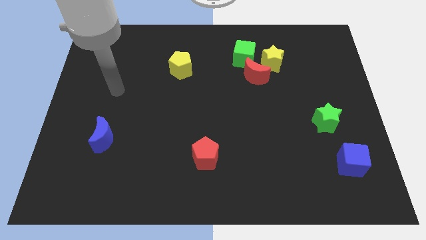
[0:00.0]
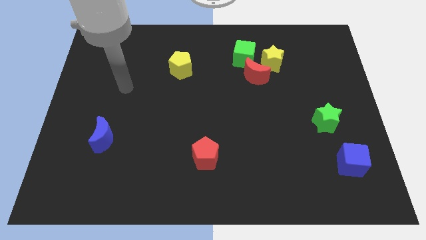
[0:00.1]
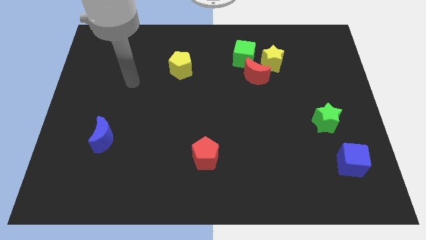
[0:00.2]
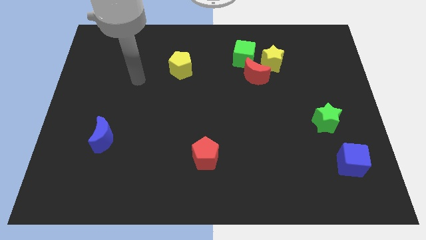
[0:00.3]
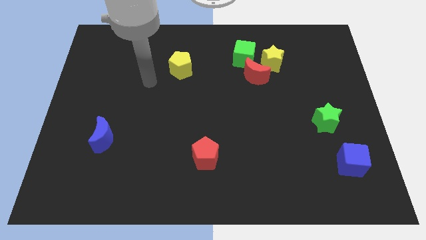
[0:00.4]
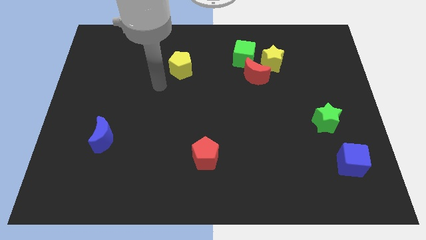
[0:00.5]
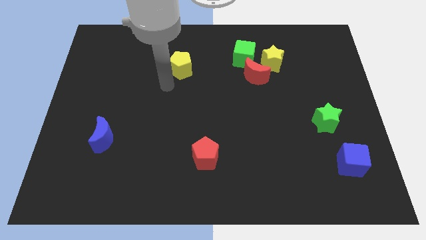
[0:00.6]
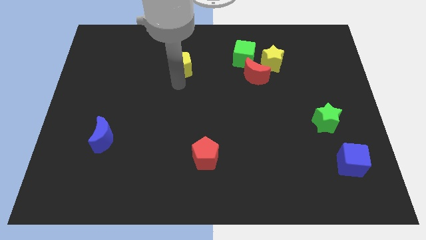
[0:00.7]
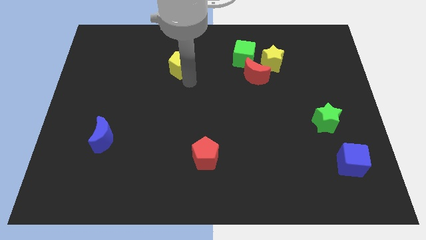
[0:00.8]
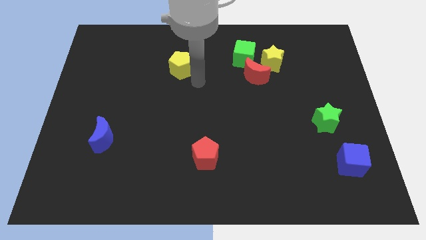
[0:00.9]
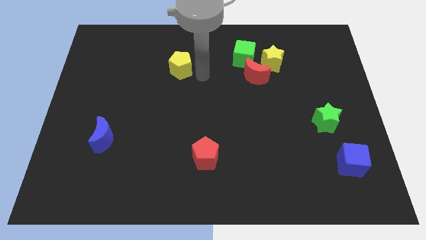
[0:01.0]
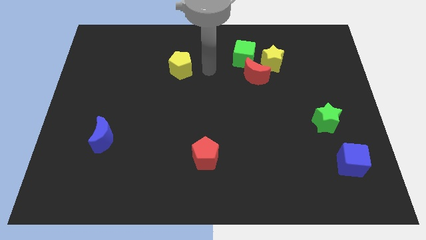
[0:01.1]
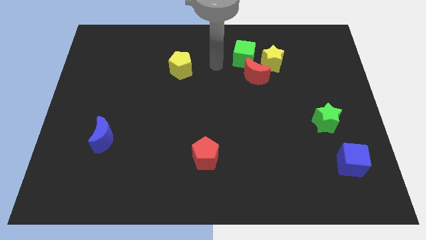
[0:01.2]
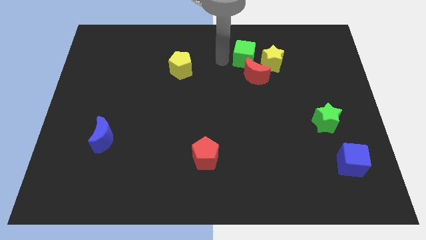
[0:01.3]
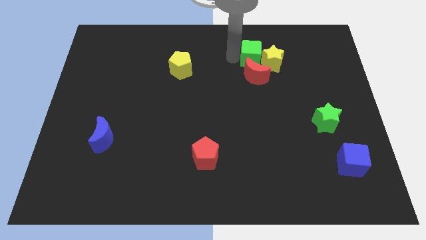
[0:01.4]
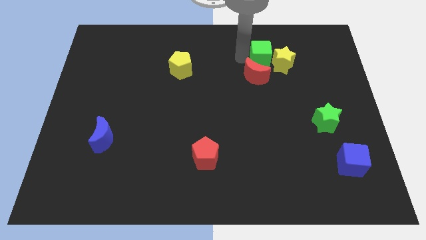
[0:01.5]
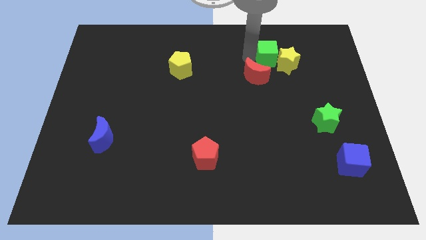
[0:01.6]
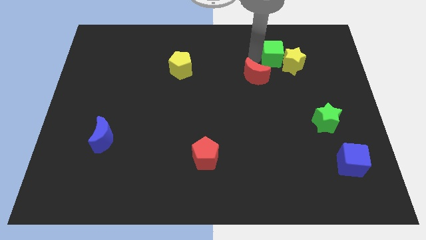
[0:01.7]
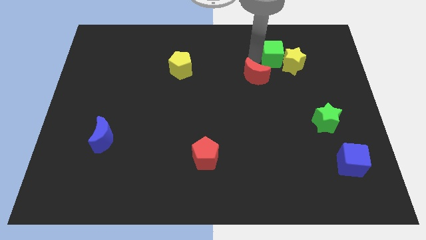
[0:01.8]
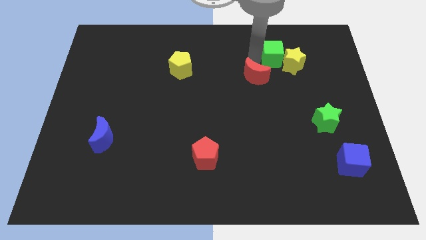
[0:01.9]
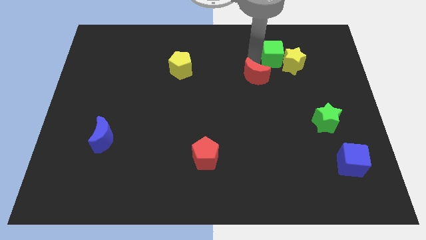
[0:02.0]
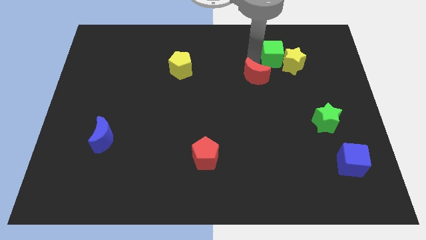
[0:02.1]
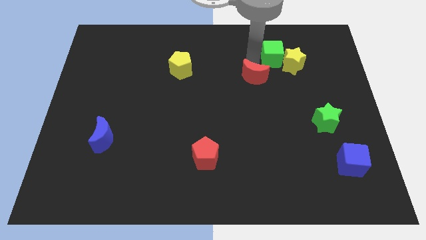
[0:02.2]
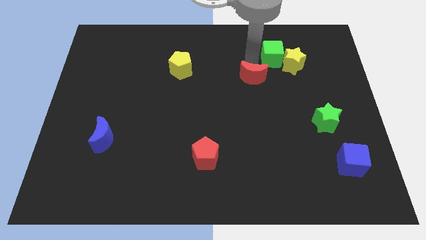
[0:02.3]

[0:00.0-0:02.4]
move the red moon away from the yellow star and green cube

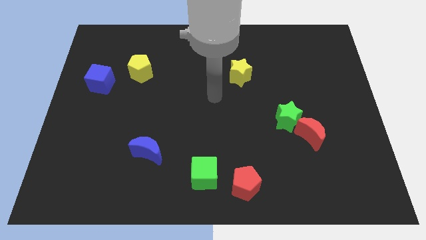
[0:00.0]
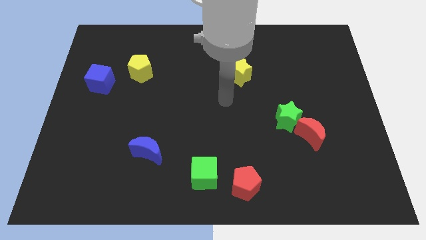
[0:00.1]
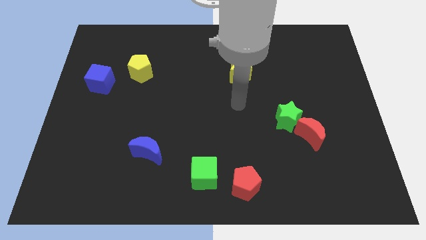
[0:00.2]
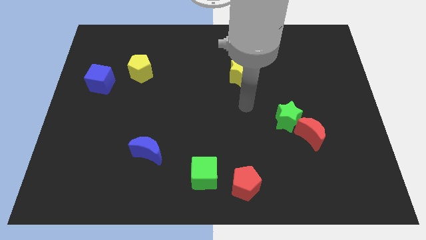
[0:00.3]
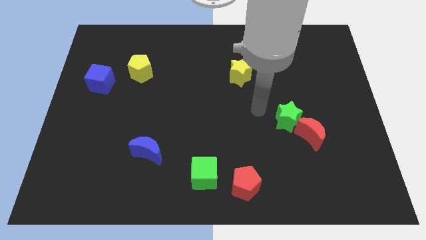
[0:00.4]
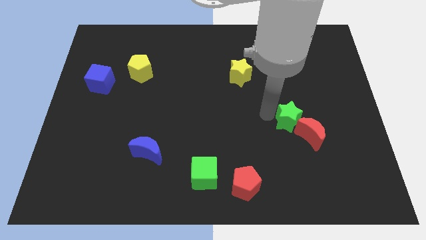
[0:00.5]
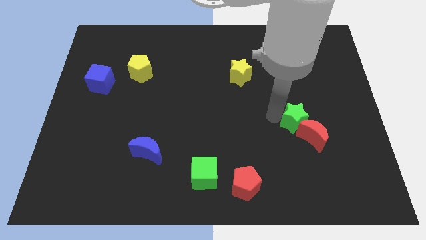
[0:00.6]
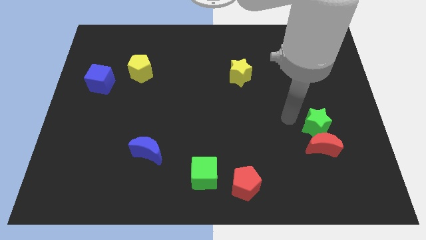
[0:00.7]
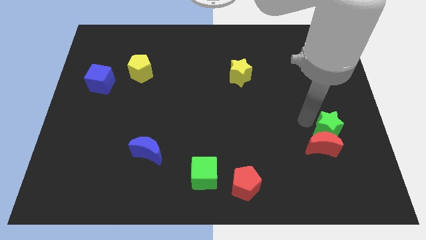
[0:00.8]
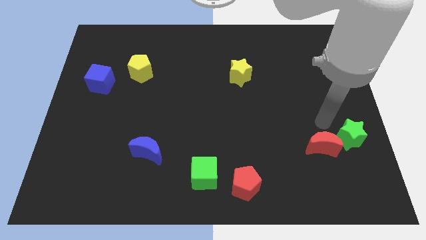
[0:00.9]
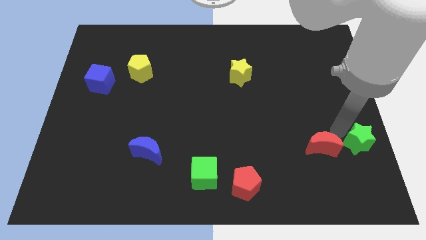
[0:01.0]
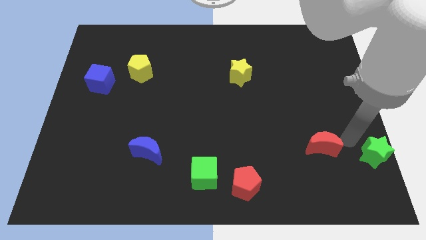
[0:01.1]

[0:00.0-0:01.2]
separate the red moon from the green star

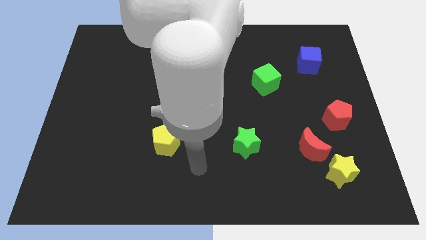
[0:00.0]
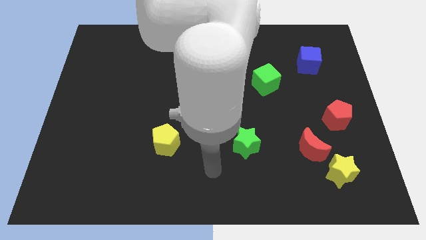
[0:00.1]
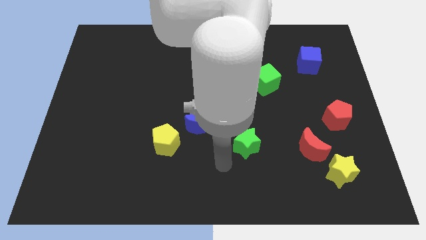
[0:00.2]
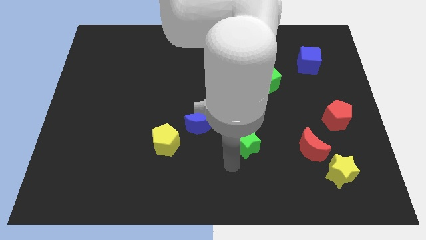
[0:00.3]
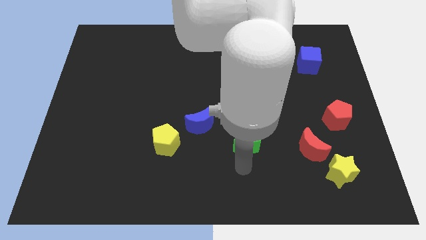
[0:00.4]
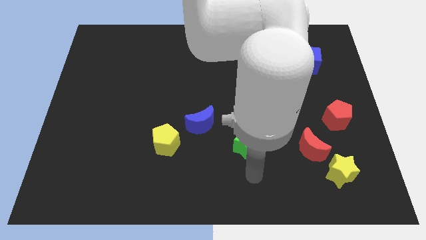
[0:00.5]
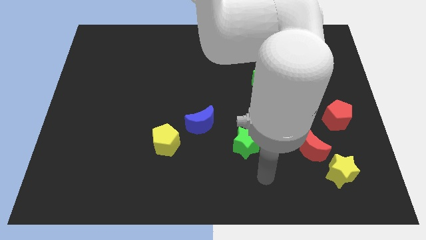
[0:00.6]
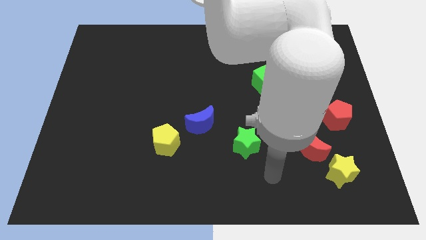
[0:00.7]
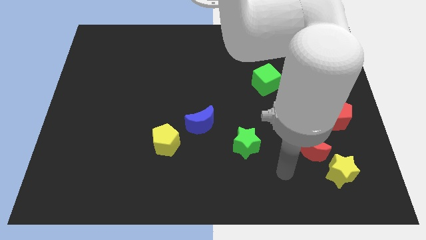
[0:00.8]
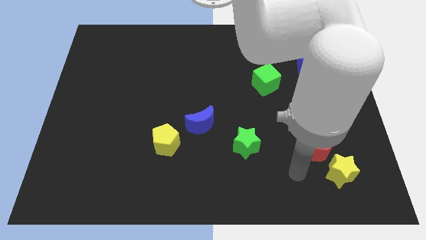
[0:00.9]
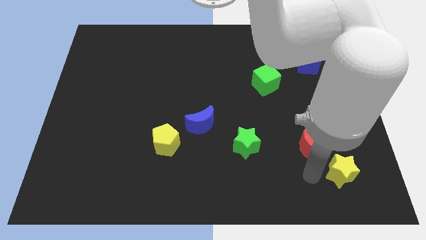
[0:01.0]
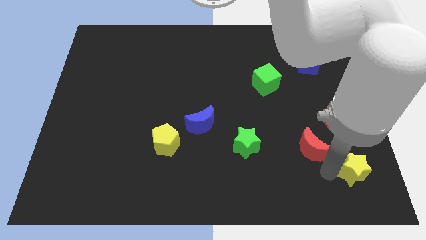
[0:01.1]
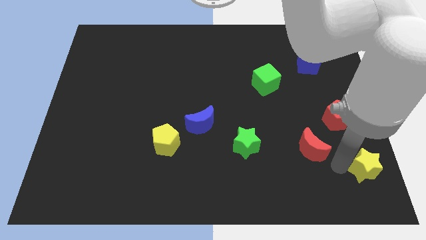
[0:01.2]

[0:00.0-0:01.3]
move the red moon away from the yellow star

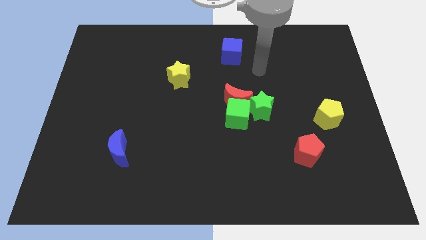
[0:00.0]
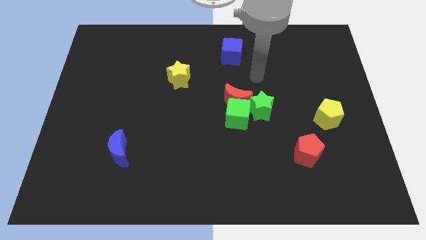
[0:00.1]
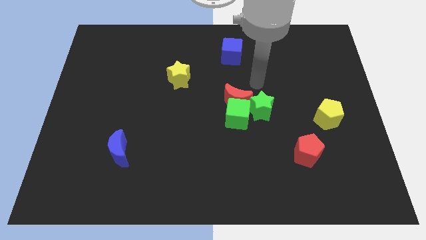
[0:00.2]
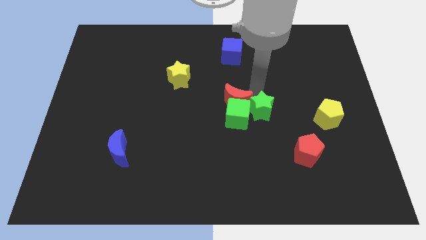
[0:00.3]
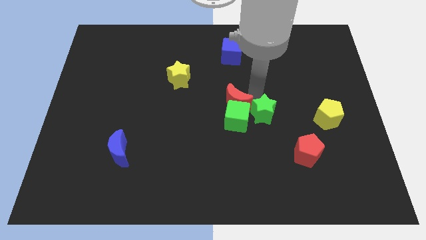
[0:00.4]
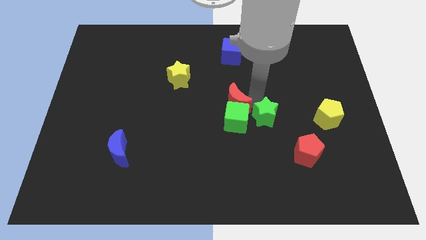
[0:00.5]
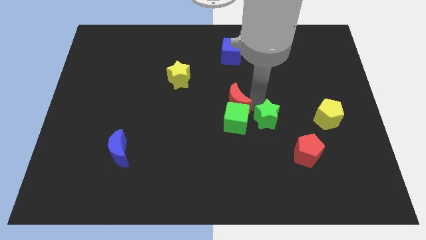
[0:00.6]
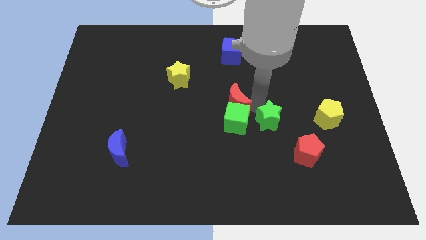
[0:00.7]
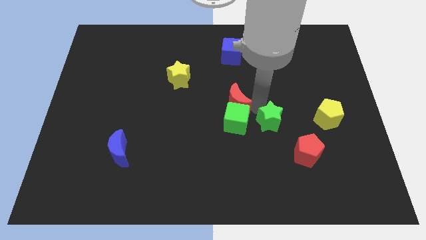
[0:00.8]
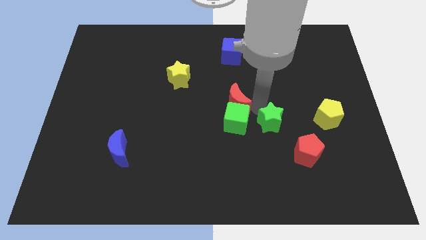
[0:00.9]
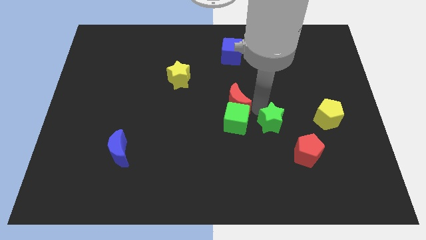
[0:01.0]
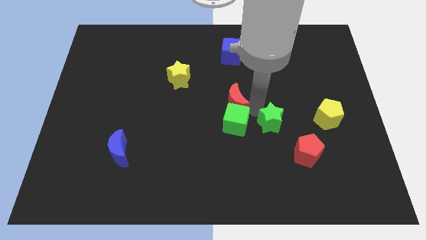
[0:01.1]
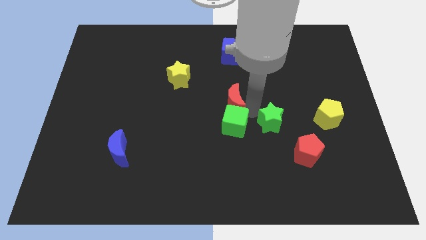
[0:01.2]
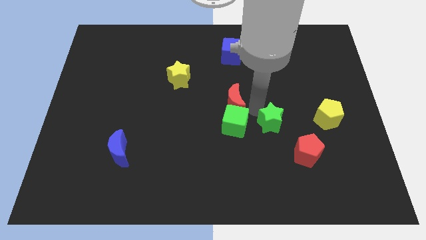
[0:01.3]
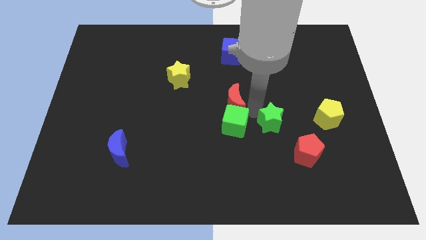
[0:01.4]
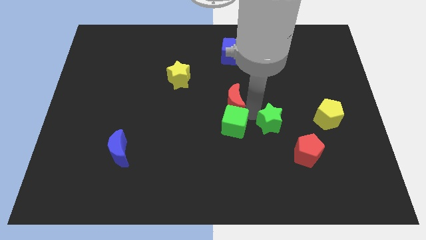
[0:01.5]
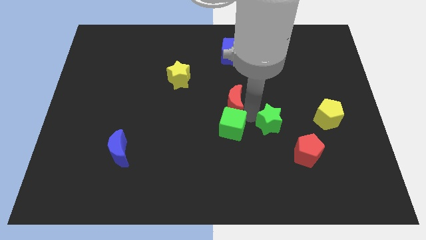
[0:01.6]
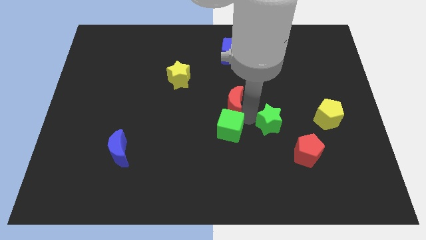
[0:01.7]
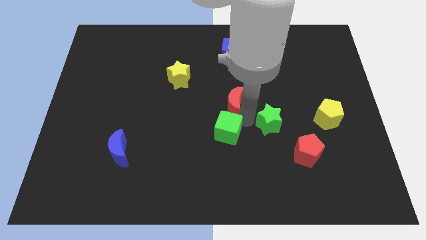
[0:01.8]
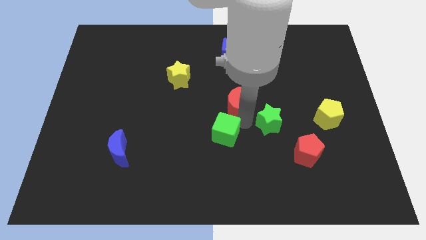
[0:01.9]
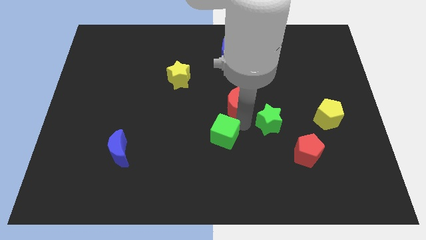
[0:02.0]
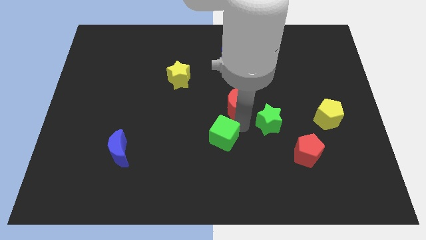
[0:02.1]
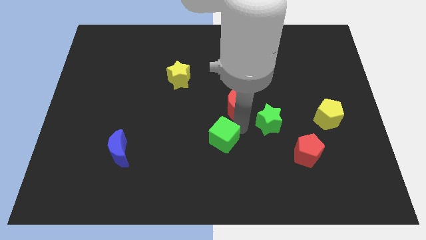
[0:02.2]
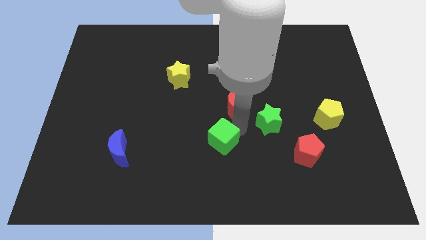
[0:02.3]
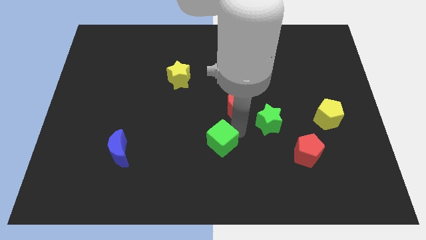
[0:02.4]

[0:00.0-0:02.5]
pull the green cube apart from the red moon and green star

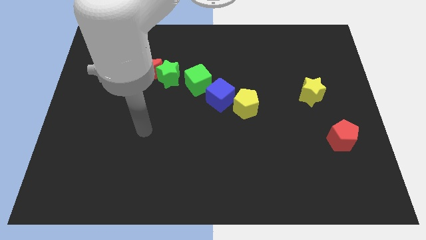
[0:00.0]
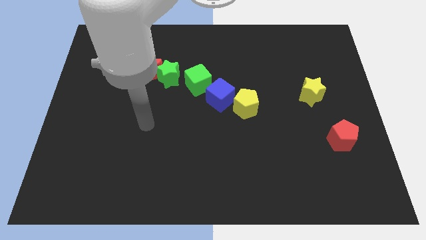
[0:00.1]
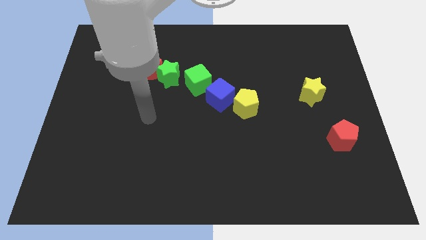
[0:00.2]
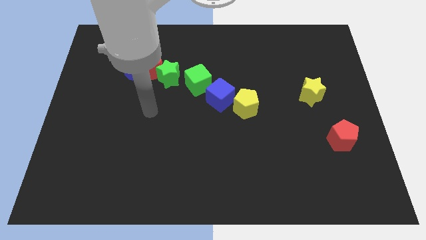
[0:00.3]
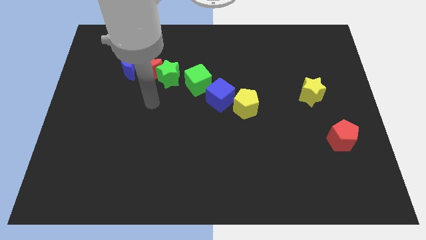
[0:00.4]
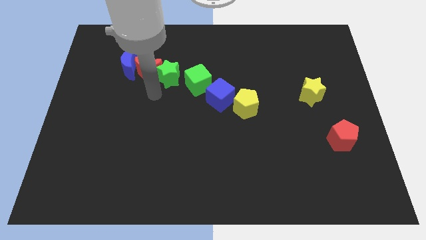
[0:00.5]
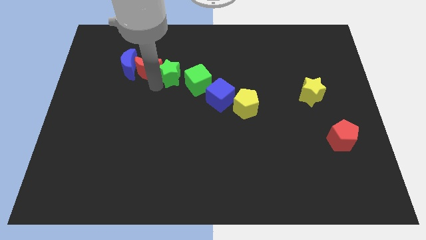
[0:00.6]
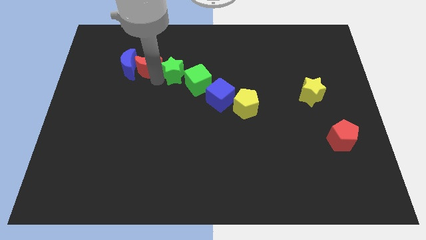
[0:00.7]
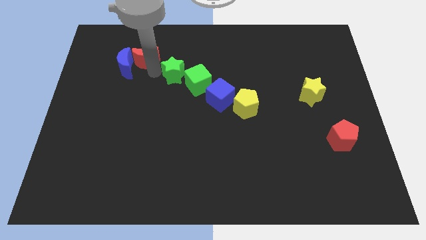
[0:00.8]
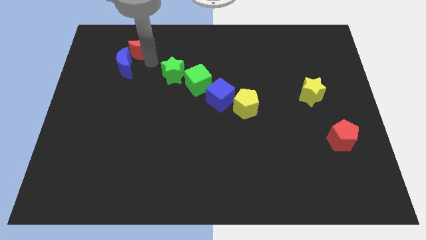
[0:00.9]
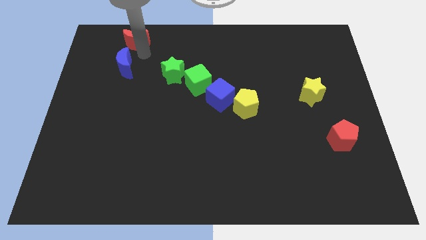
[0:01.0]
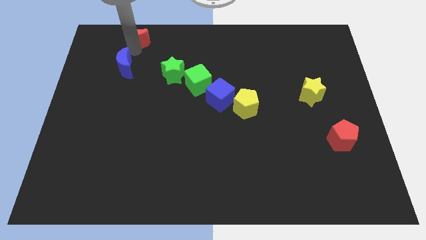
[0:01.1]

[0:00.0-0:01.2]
move the blue moon away from the red moon

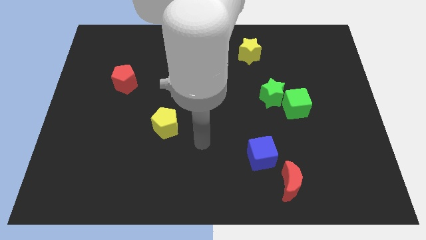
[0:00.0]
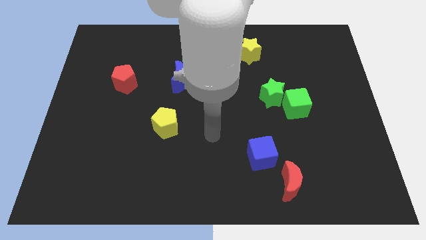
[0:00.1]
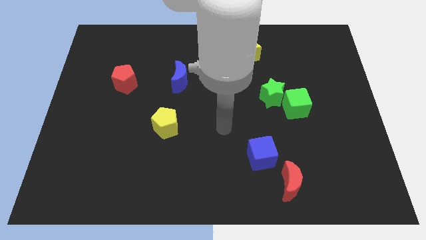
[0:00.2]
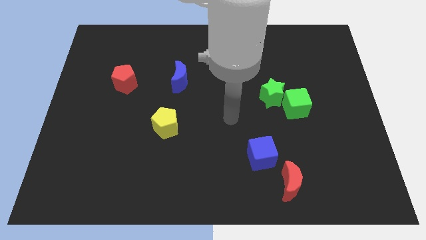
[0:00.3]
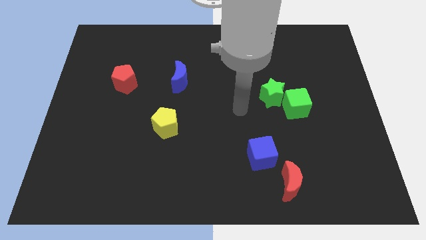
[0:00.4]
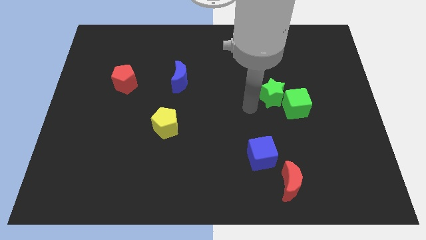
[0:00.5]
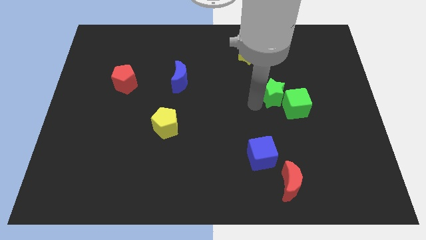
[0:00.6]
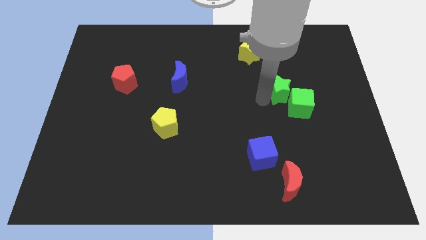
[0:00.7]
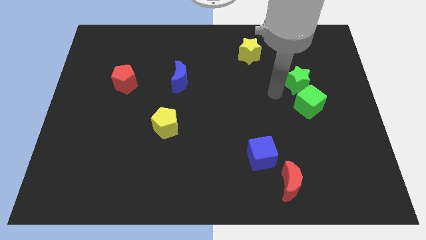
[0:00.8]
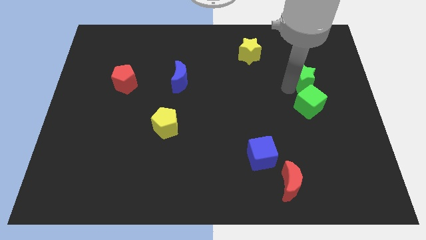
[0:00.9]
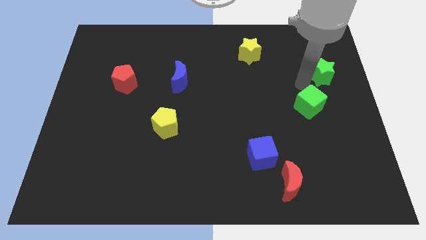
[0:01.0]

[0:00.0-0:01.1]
separate the green cube from the green star
